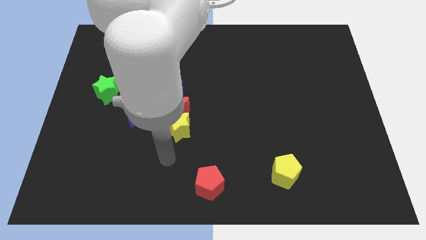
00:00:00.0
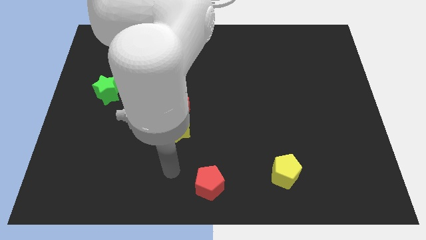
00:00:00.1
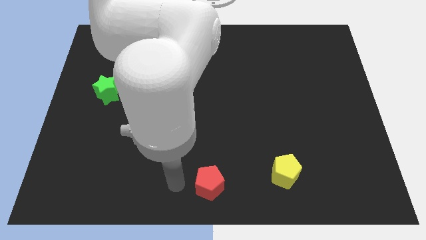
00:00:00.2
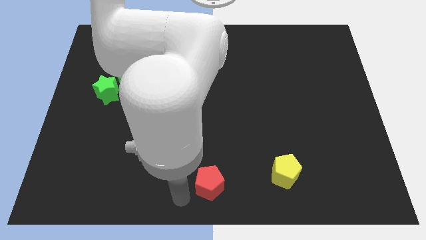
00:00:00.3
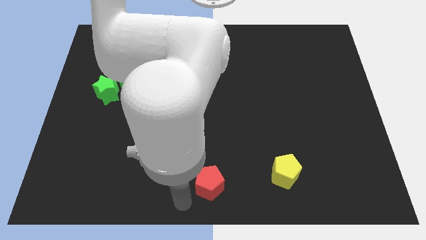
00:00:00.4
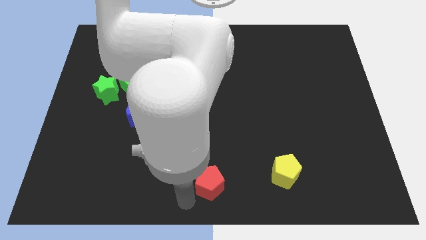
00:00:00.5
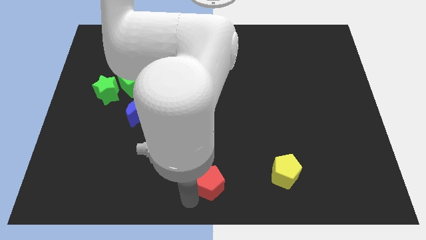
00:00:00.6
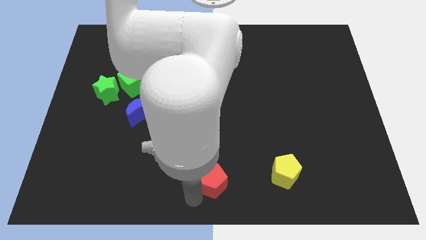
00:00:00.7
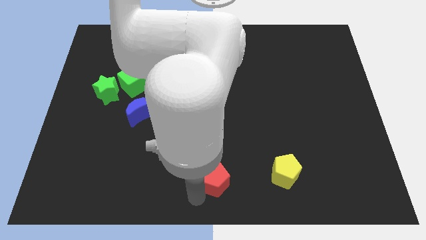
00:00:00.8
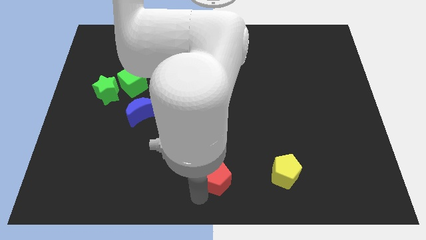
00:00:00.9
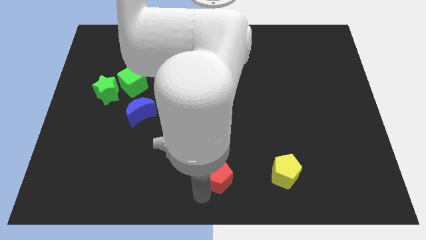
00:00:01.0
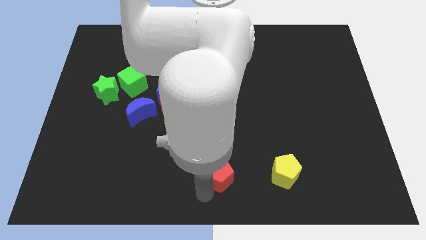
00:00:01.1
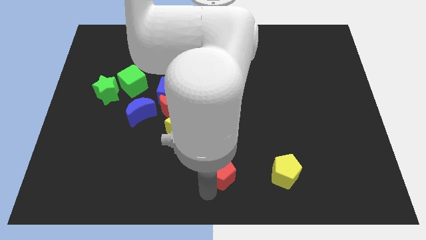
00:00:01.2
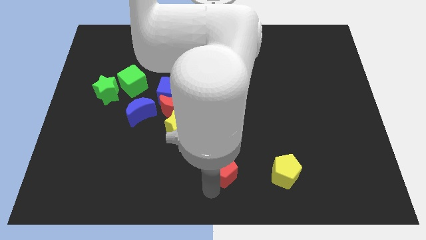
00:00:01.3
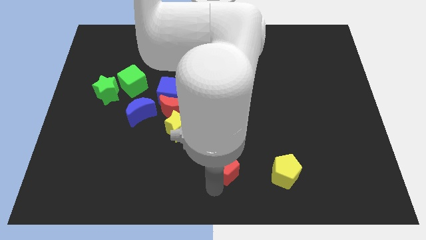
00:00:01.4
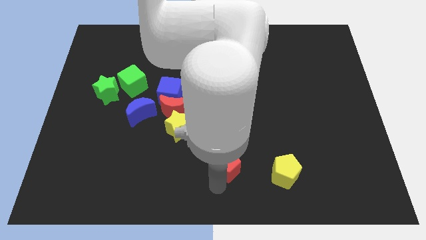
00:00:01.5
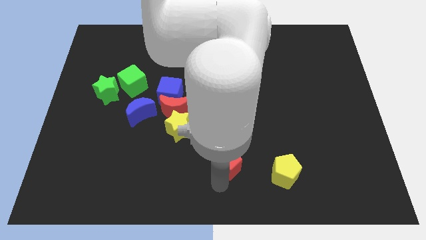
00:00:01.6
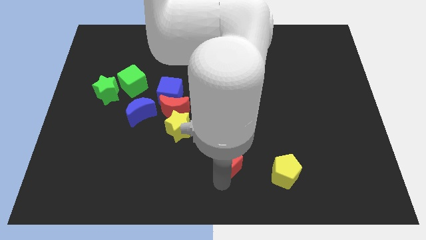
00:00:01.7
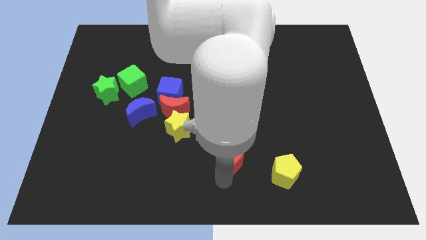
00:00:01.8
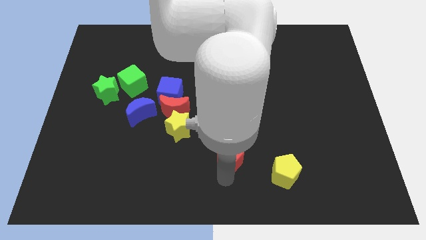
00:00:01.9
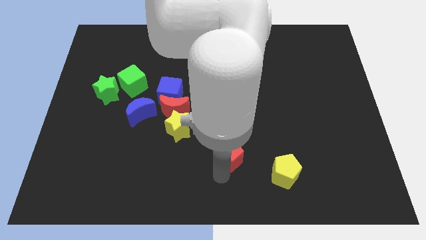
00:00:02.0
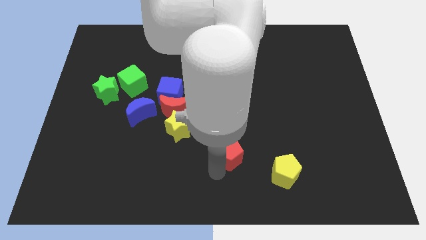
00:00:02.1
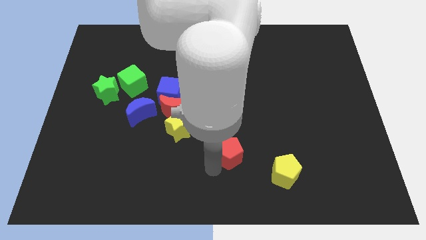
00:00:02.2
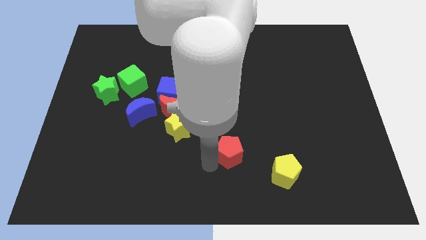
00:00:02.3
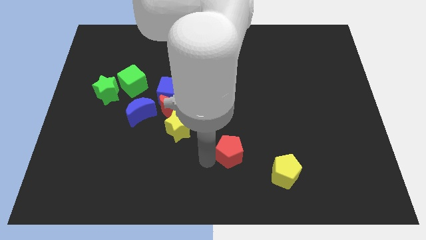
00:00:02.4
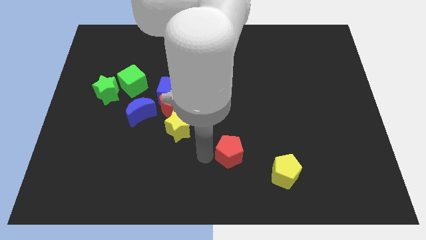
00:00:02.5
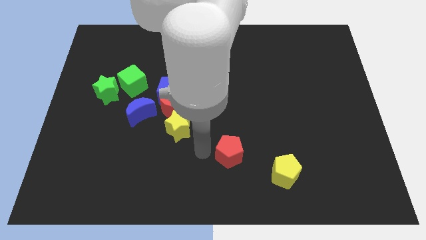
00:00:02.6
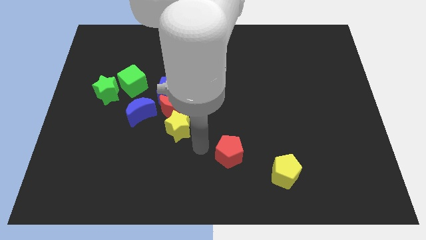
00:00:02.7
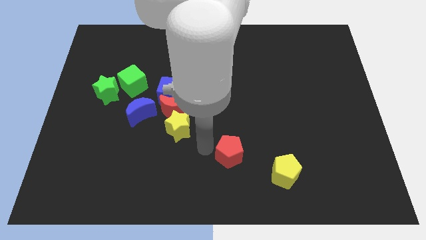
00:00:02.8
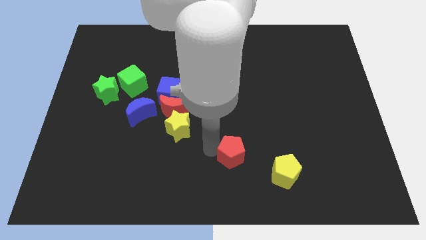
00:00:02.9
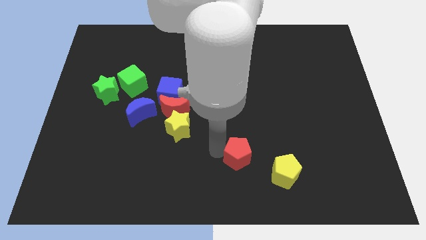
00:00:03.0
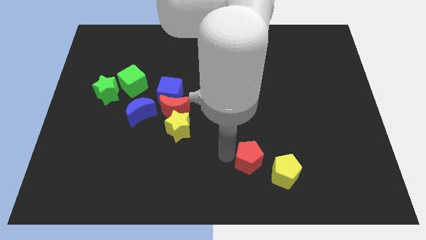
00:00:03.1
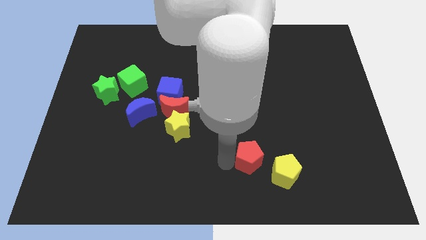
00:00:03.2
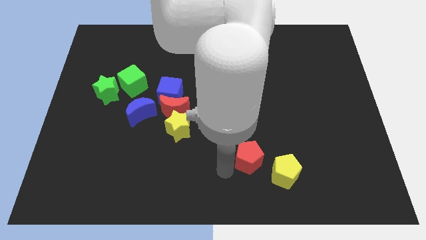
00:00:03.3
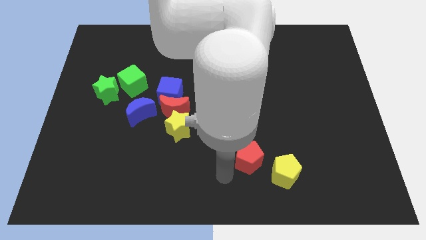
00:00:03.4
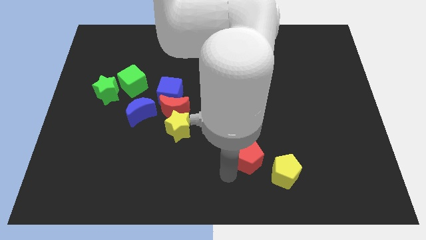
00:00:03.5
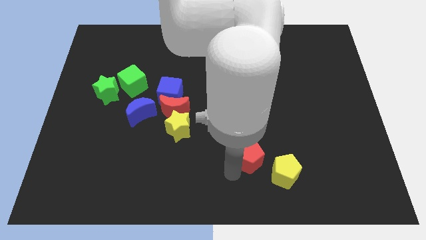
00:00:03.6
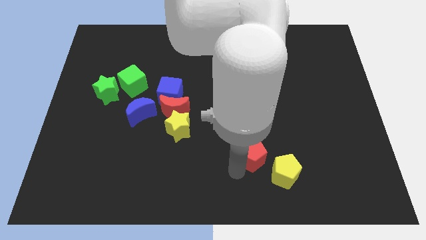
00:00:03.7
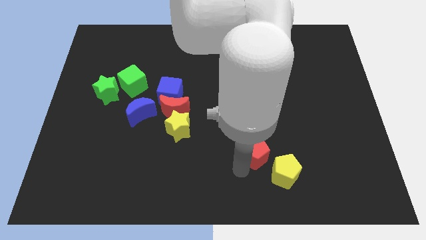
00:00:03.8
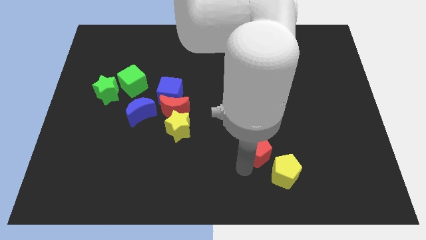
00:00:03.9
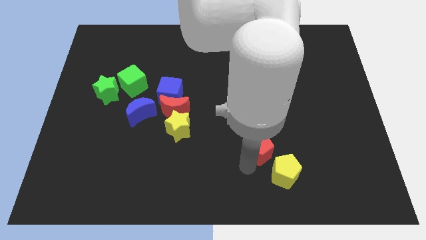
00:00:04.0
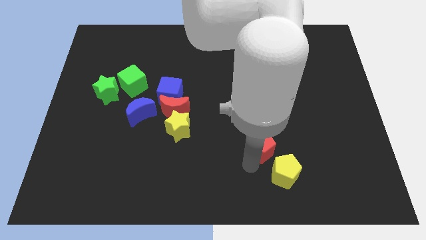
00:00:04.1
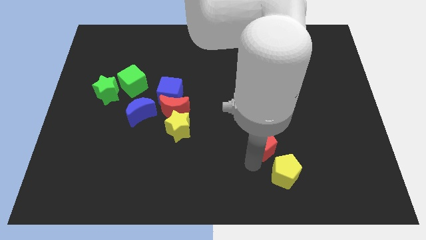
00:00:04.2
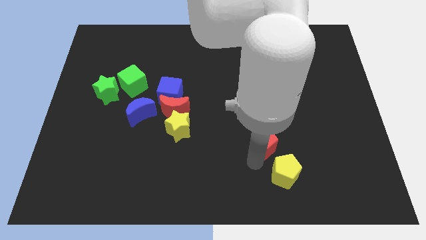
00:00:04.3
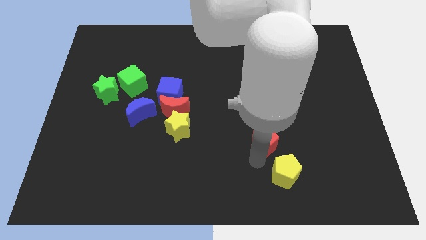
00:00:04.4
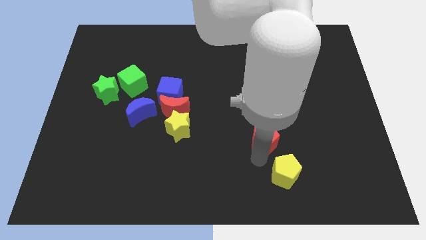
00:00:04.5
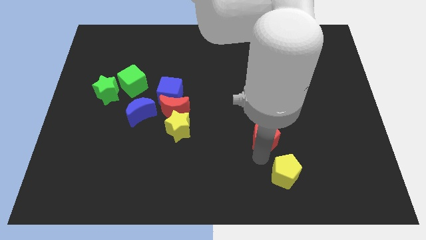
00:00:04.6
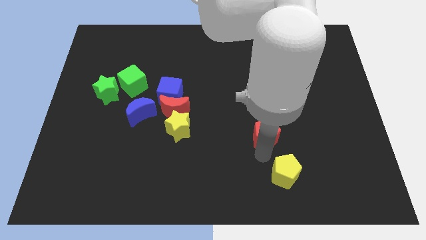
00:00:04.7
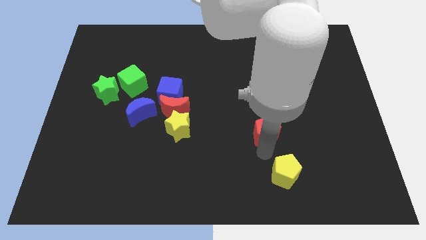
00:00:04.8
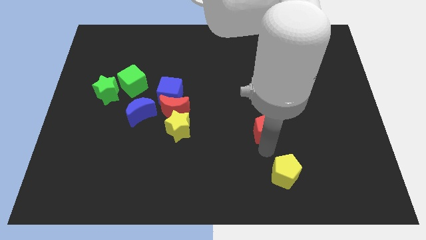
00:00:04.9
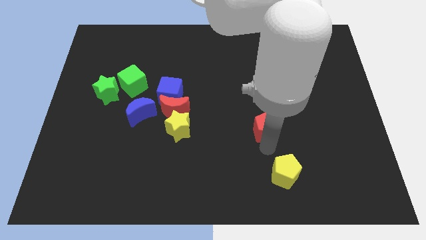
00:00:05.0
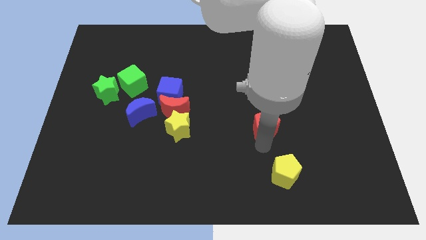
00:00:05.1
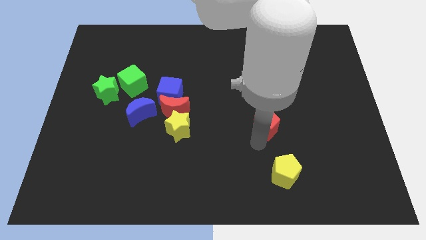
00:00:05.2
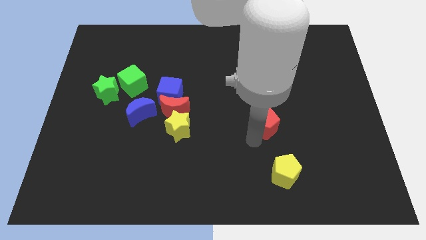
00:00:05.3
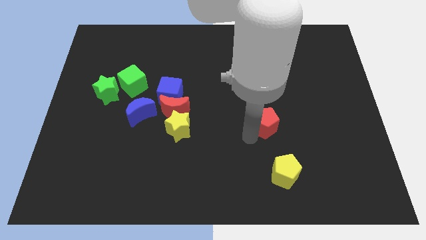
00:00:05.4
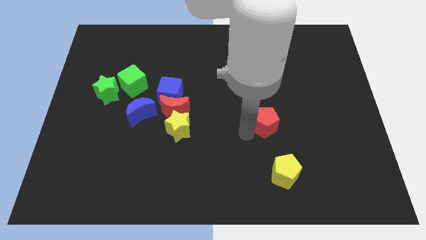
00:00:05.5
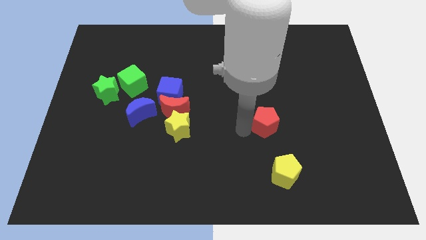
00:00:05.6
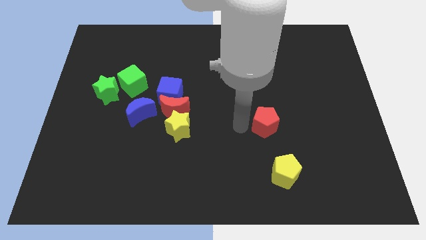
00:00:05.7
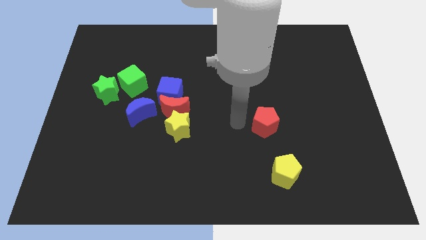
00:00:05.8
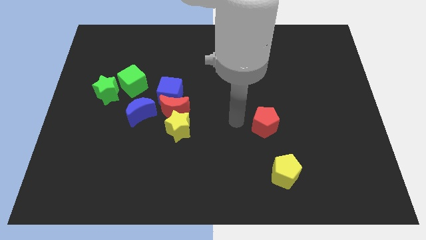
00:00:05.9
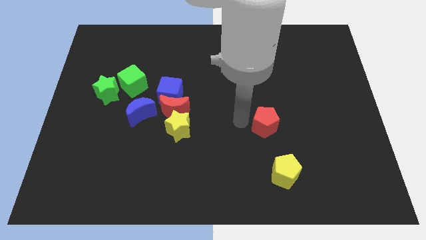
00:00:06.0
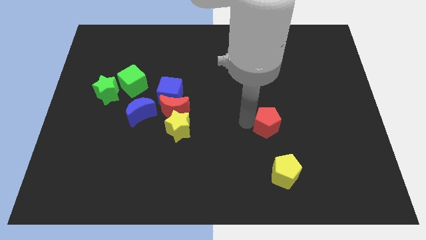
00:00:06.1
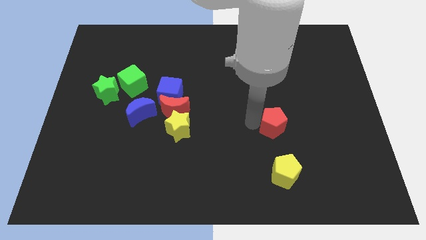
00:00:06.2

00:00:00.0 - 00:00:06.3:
move the red pentagon upwards and right

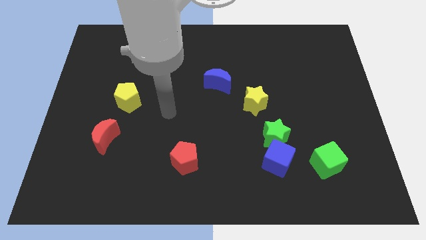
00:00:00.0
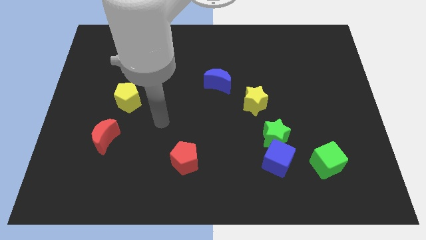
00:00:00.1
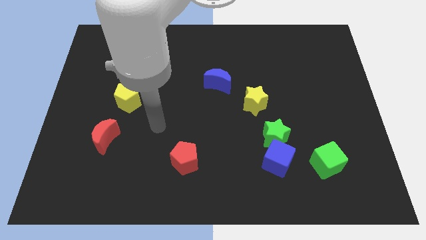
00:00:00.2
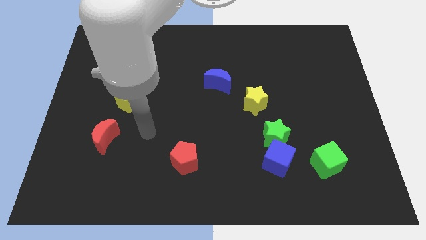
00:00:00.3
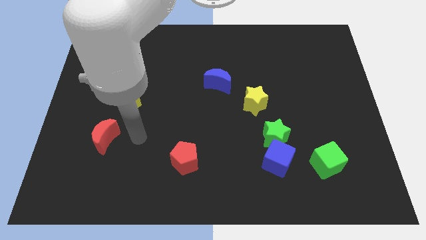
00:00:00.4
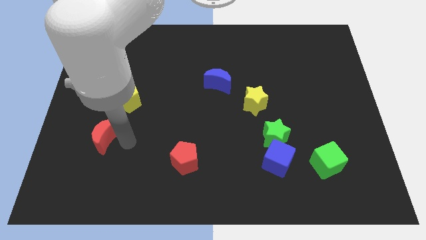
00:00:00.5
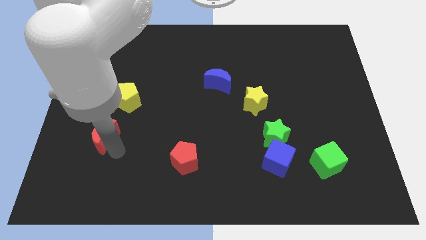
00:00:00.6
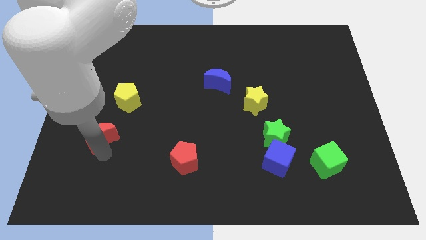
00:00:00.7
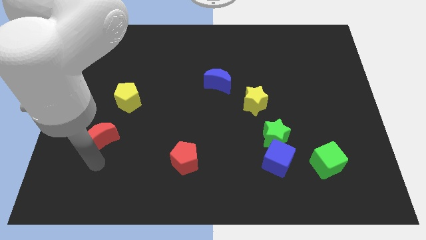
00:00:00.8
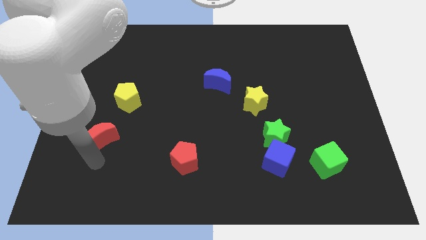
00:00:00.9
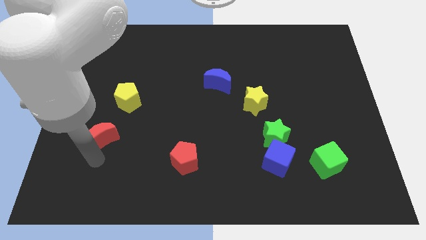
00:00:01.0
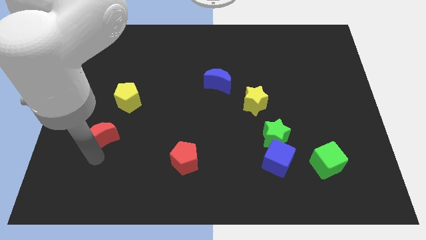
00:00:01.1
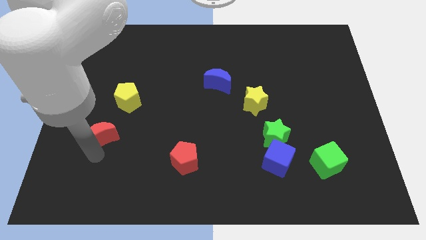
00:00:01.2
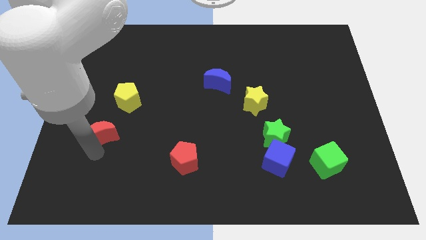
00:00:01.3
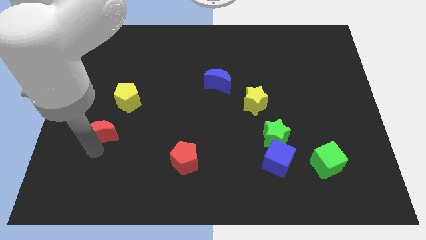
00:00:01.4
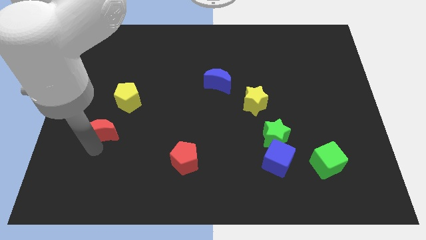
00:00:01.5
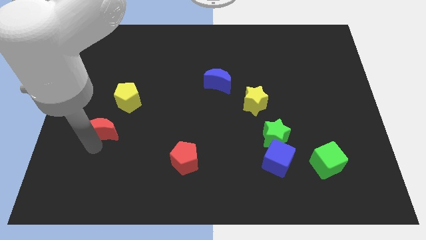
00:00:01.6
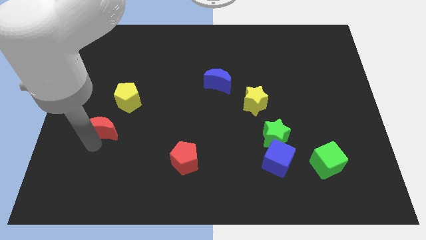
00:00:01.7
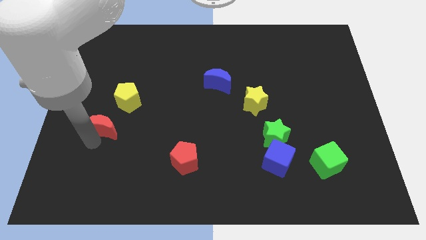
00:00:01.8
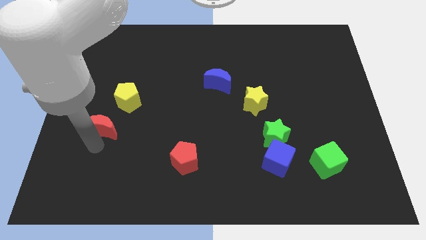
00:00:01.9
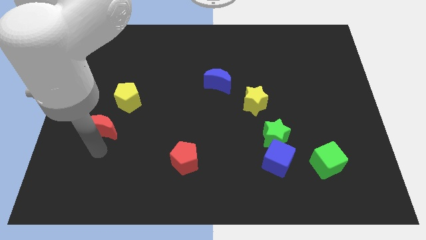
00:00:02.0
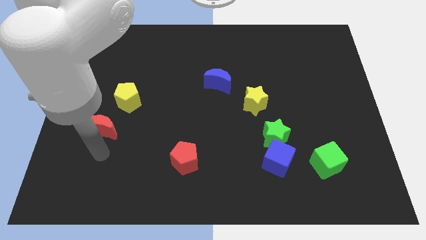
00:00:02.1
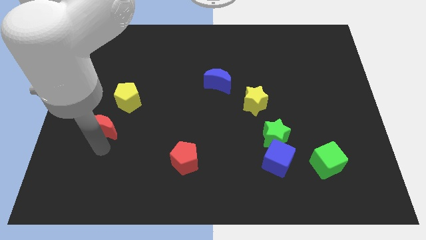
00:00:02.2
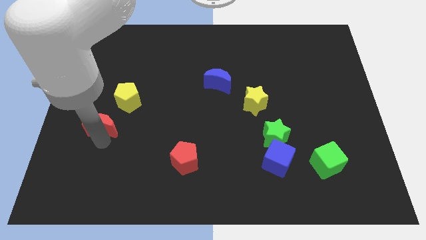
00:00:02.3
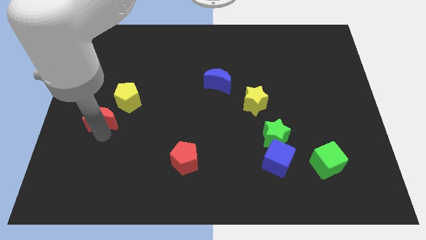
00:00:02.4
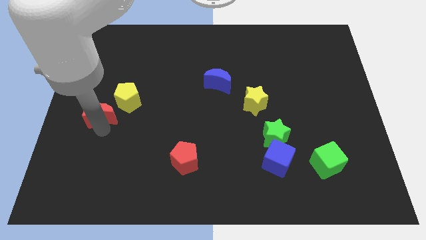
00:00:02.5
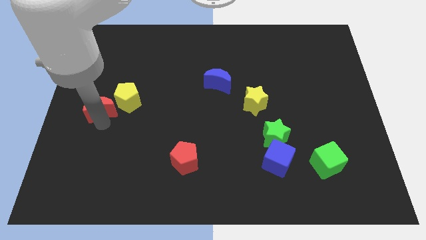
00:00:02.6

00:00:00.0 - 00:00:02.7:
move the red moon upwards a bit
